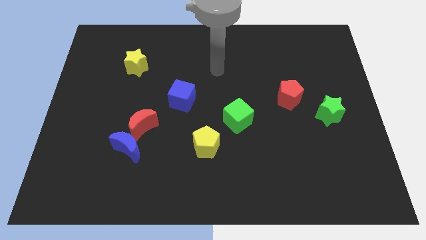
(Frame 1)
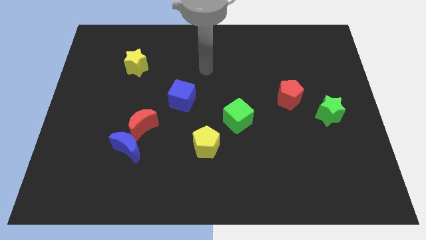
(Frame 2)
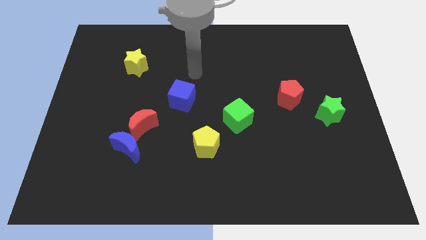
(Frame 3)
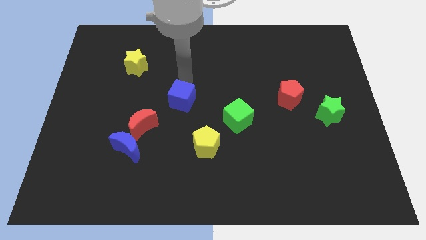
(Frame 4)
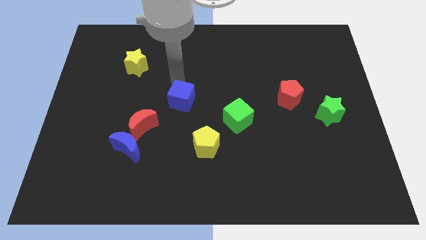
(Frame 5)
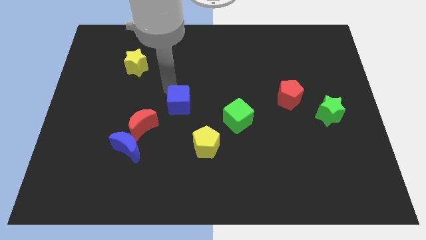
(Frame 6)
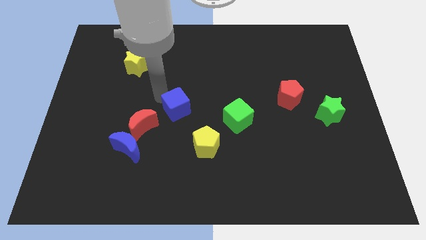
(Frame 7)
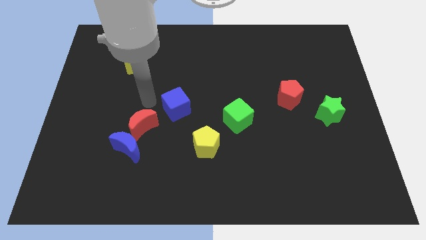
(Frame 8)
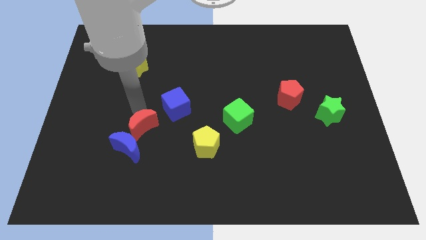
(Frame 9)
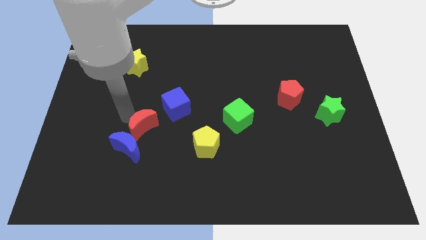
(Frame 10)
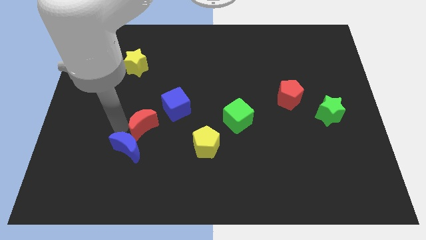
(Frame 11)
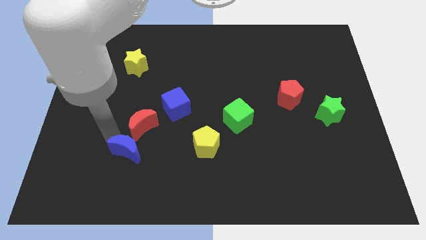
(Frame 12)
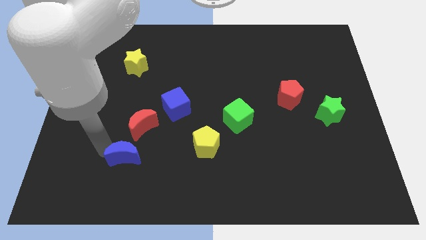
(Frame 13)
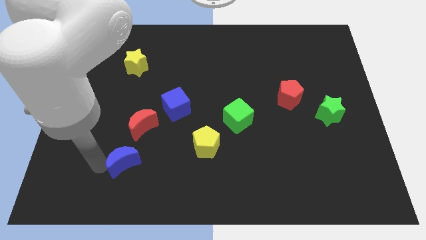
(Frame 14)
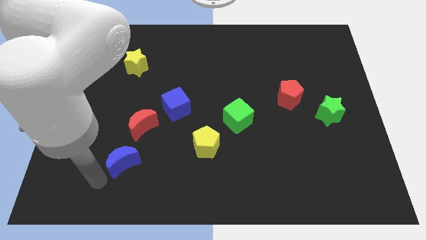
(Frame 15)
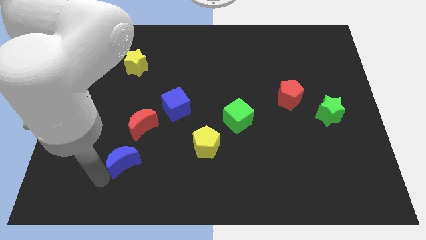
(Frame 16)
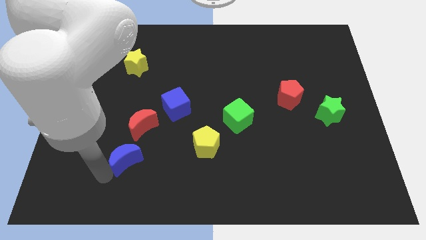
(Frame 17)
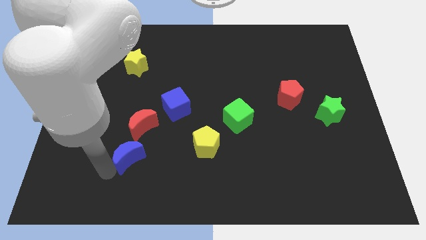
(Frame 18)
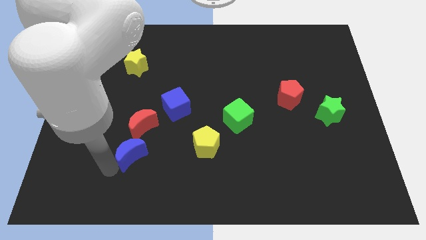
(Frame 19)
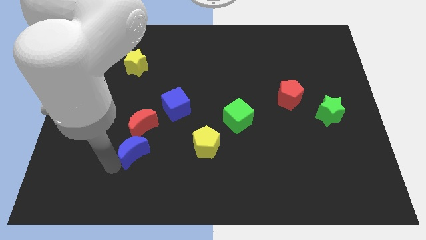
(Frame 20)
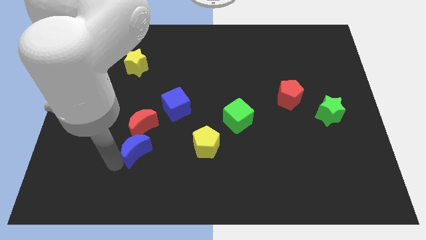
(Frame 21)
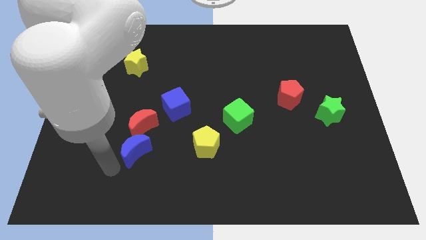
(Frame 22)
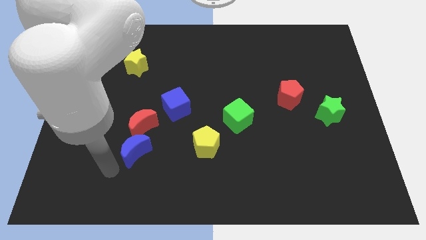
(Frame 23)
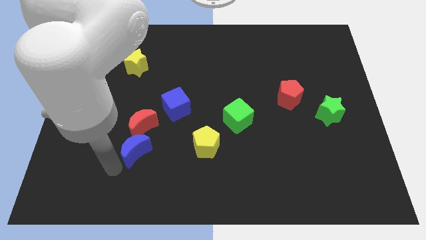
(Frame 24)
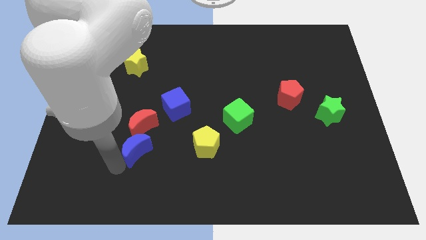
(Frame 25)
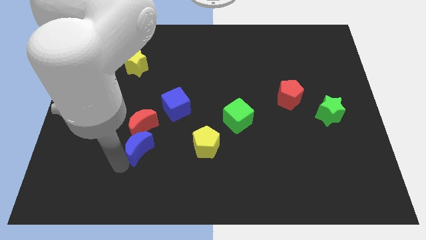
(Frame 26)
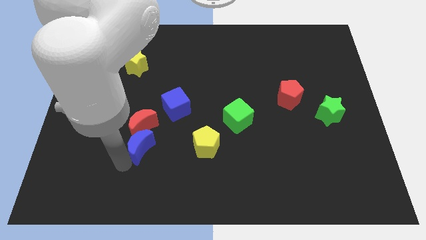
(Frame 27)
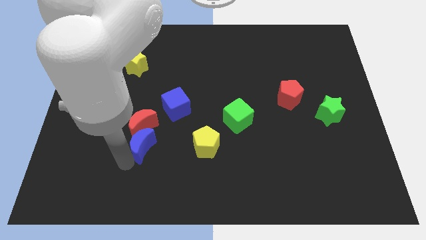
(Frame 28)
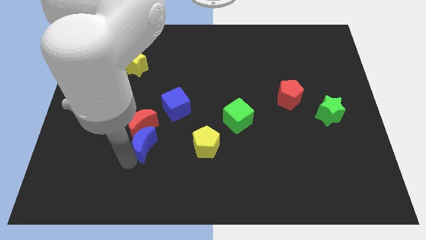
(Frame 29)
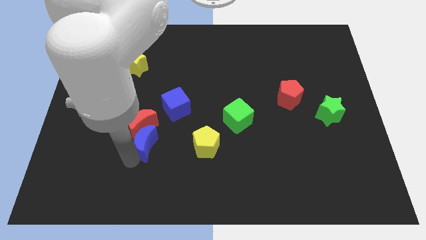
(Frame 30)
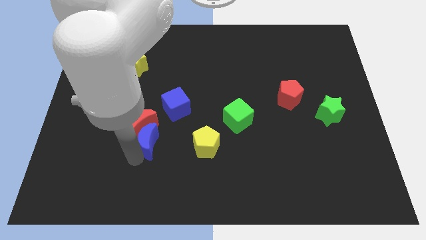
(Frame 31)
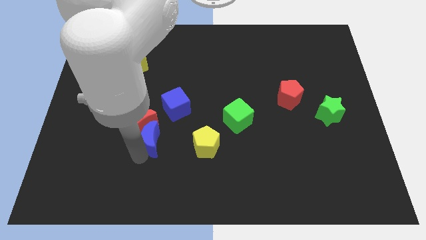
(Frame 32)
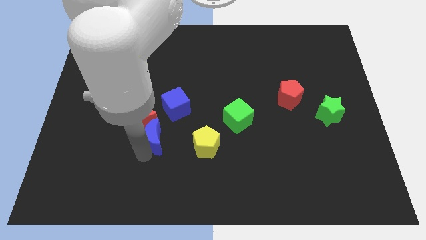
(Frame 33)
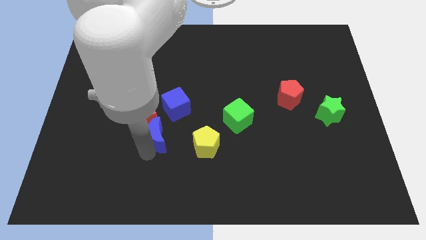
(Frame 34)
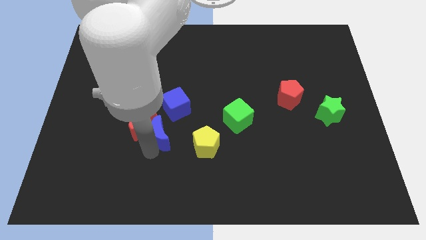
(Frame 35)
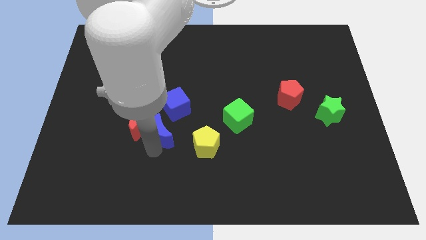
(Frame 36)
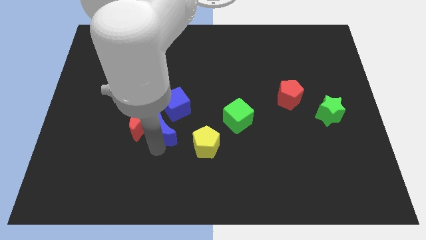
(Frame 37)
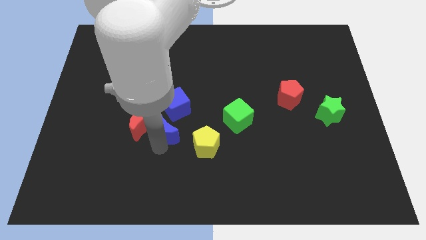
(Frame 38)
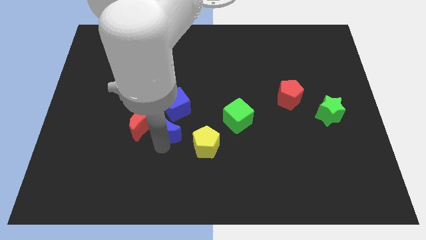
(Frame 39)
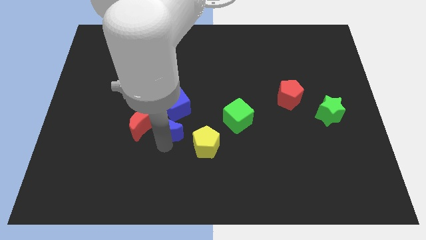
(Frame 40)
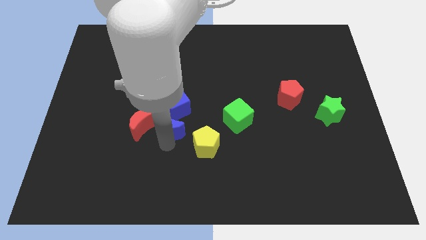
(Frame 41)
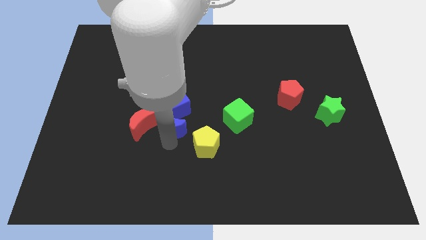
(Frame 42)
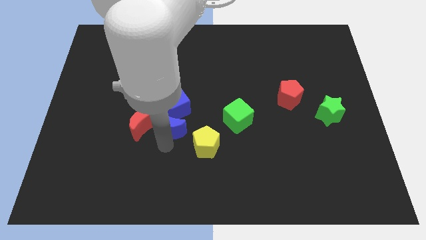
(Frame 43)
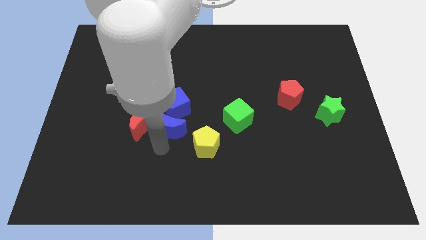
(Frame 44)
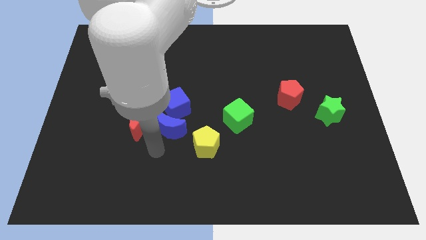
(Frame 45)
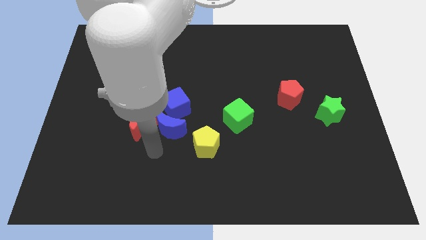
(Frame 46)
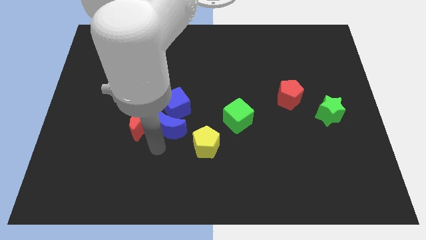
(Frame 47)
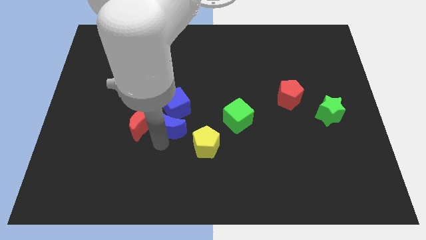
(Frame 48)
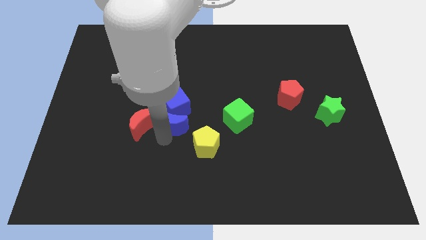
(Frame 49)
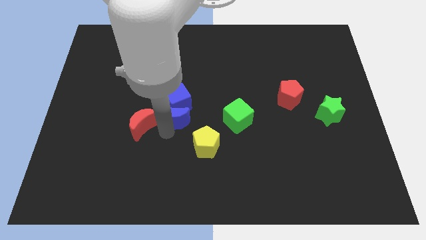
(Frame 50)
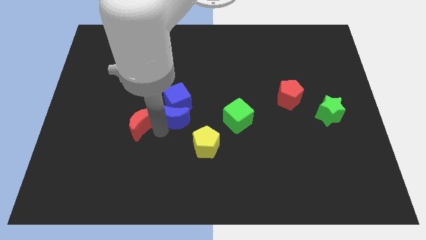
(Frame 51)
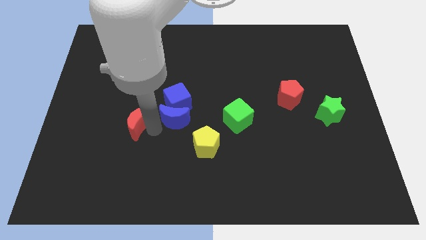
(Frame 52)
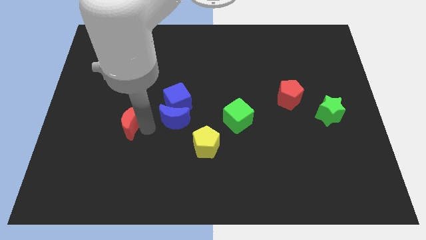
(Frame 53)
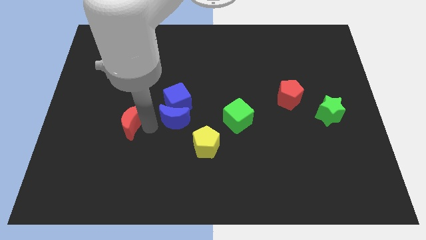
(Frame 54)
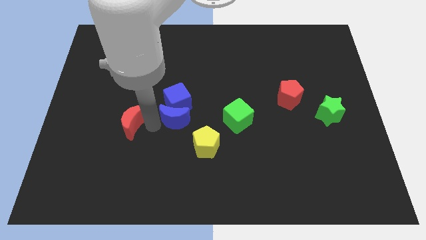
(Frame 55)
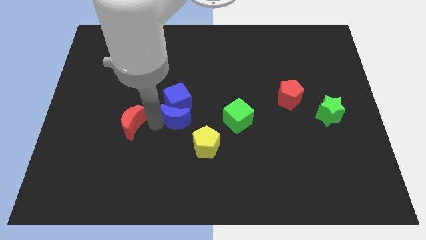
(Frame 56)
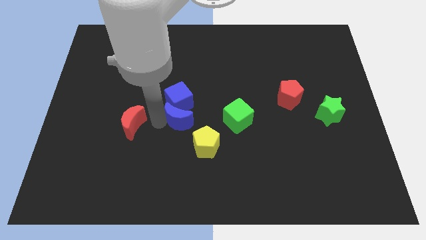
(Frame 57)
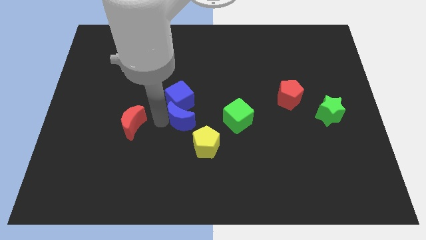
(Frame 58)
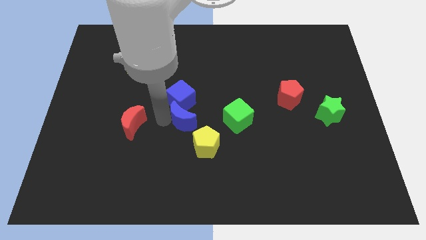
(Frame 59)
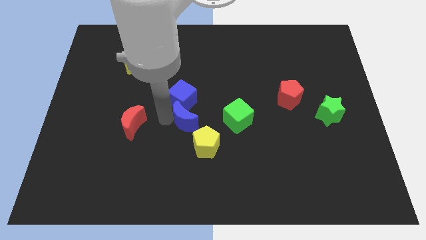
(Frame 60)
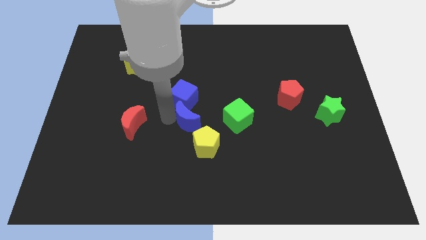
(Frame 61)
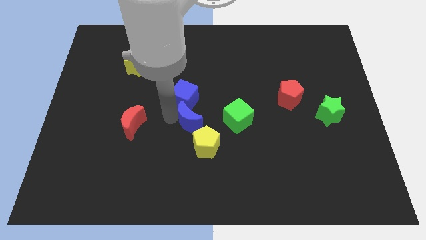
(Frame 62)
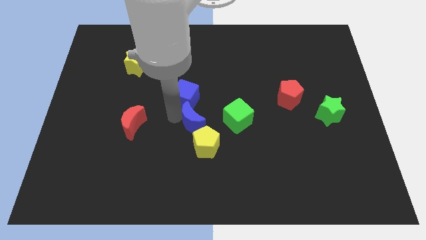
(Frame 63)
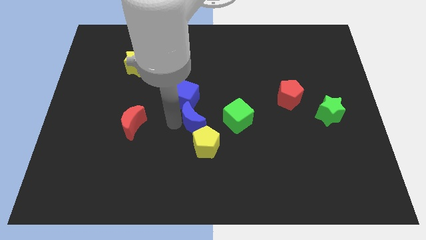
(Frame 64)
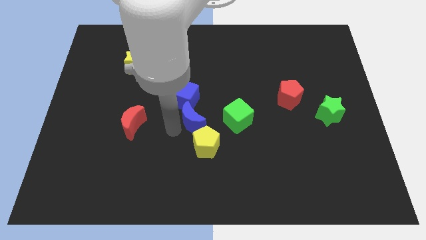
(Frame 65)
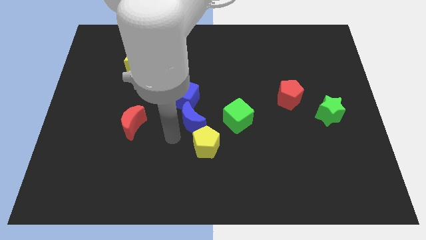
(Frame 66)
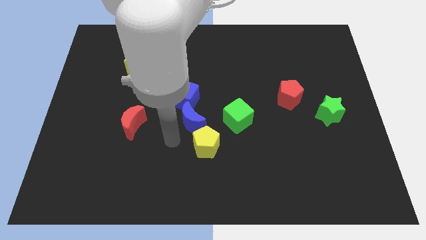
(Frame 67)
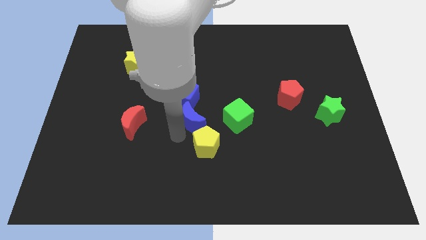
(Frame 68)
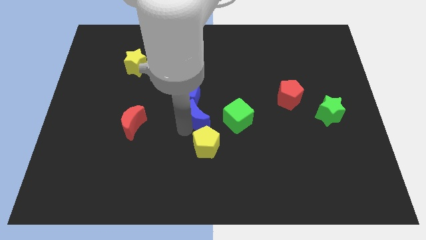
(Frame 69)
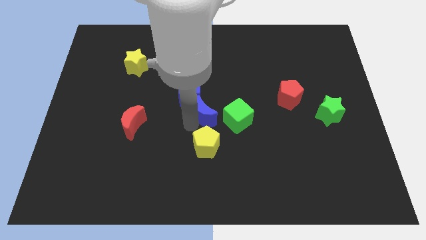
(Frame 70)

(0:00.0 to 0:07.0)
put the blue moon to the top left of the green cube
